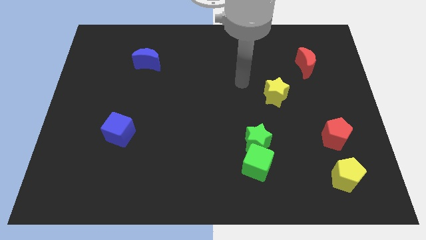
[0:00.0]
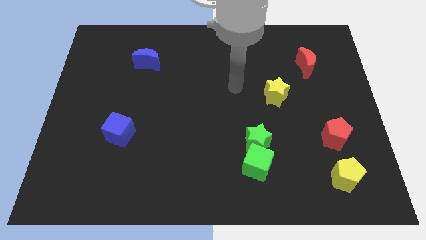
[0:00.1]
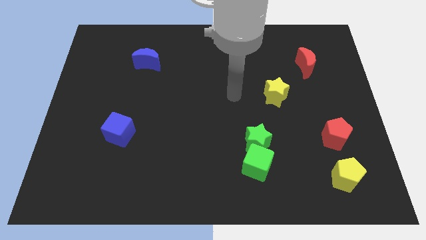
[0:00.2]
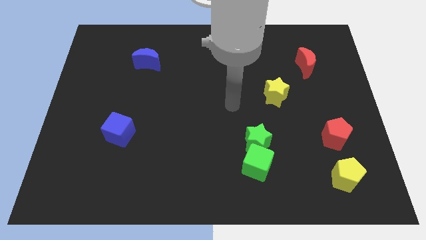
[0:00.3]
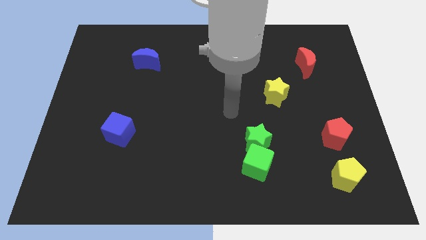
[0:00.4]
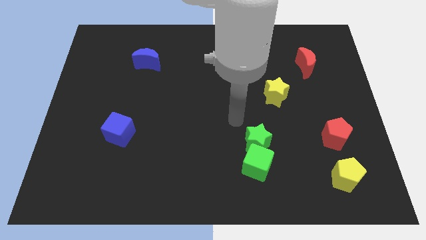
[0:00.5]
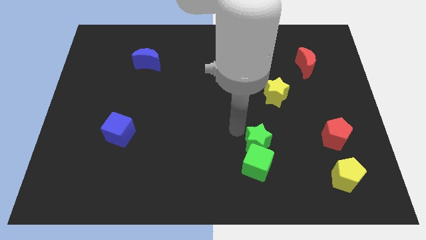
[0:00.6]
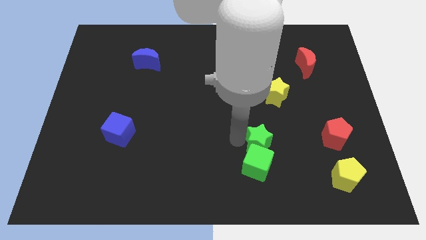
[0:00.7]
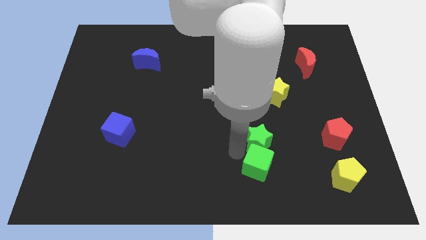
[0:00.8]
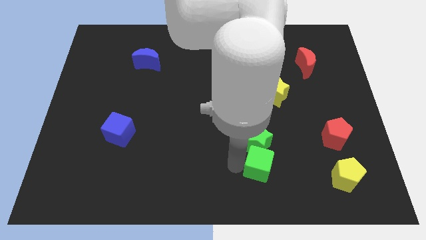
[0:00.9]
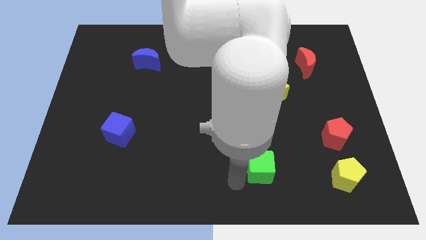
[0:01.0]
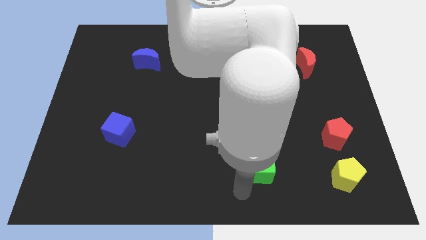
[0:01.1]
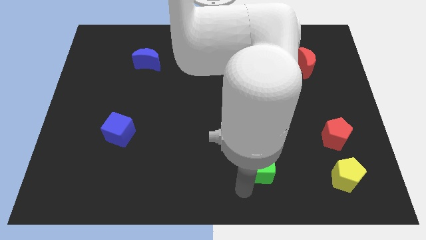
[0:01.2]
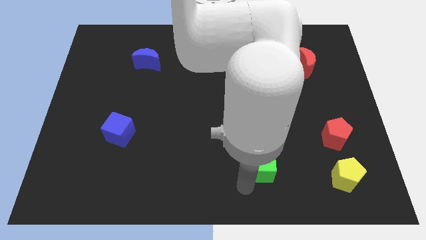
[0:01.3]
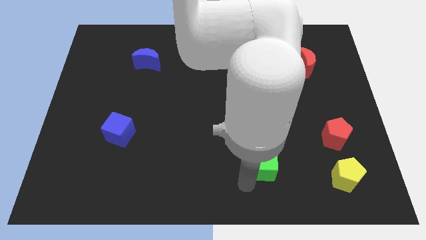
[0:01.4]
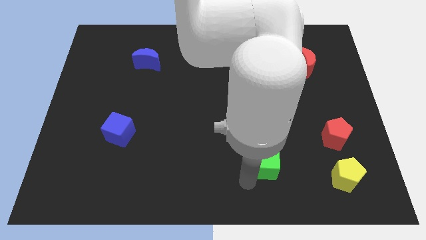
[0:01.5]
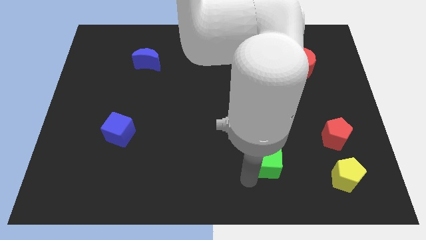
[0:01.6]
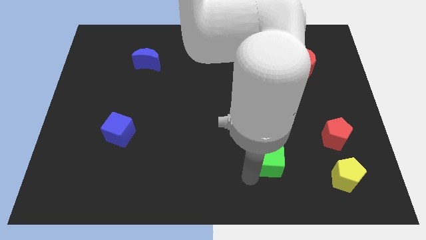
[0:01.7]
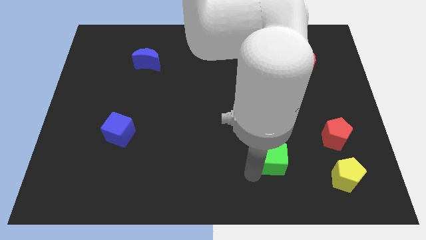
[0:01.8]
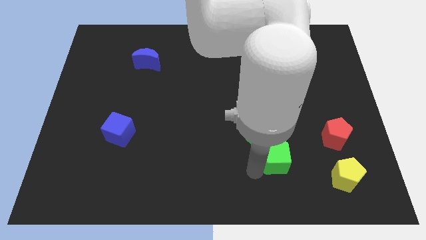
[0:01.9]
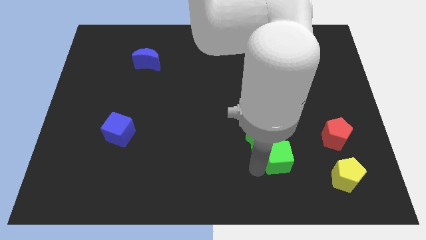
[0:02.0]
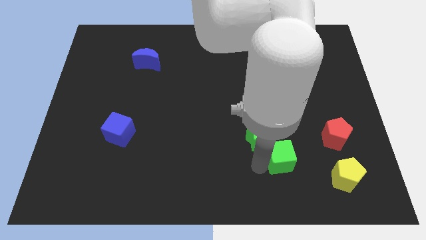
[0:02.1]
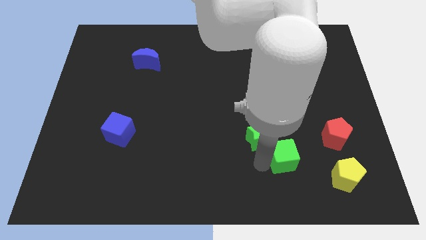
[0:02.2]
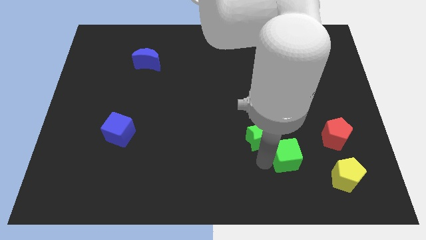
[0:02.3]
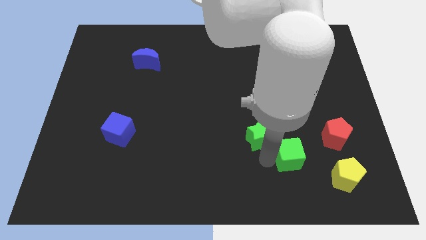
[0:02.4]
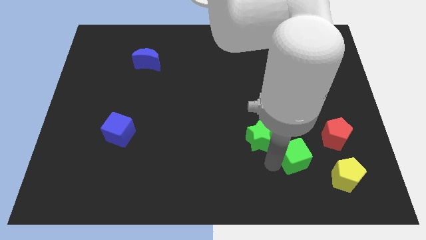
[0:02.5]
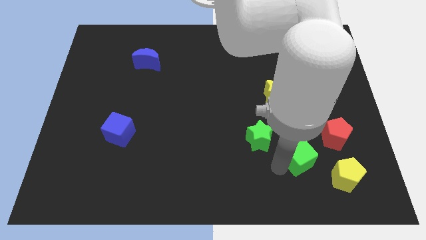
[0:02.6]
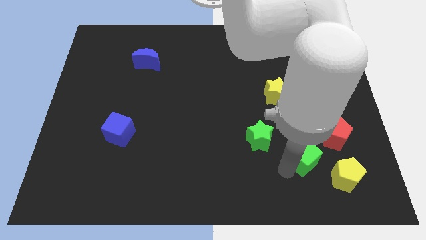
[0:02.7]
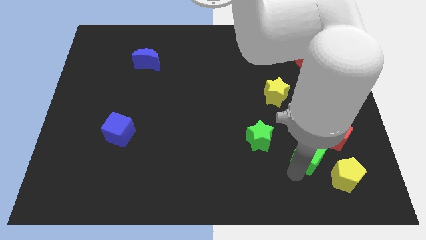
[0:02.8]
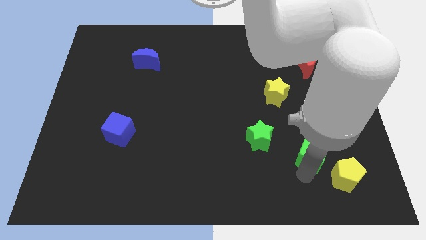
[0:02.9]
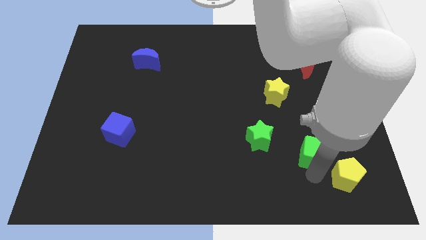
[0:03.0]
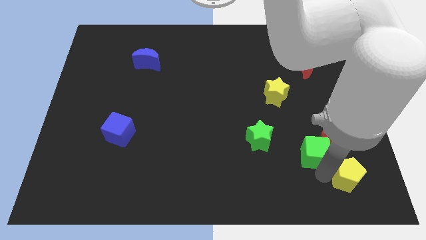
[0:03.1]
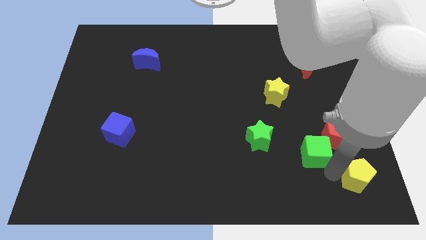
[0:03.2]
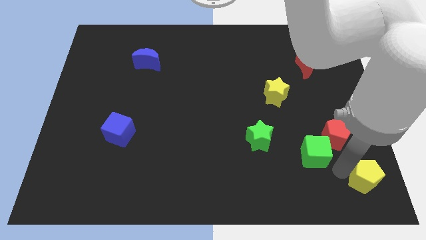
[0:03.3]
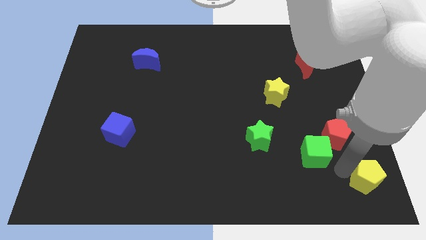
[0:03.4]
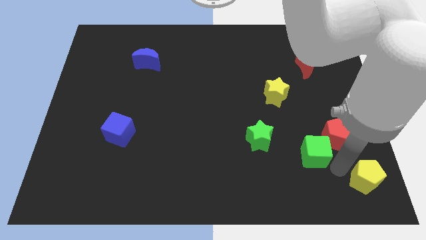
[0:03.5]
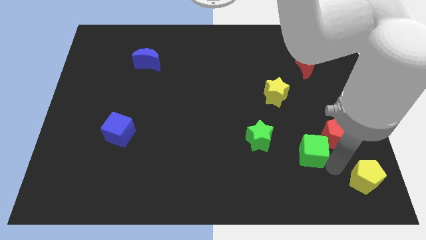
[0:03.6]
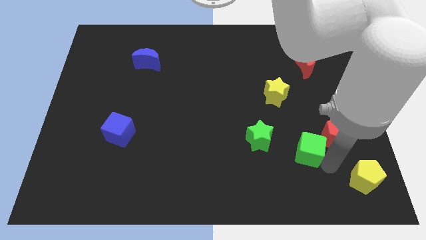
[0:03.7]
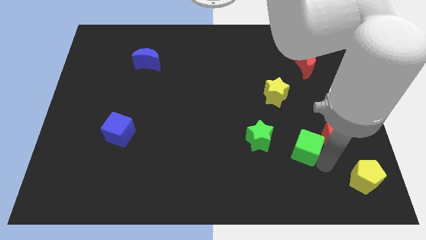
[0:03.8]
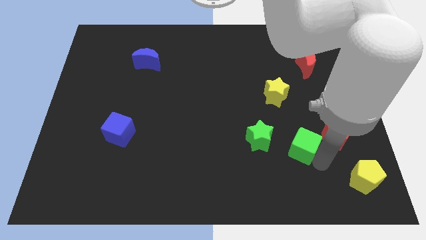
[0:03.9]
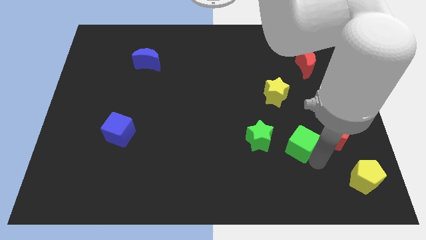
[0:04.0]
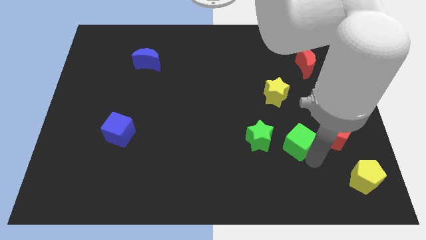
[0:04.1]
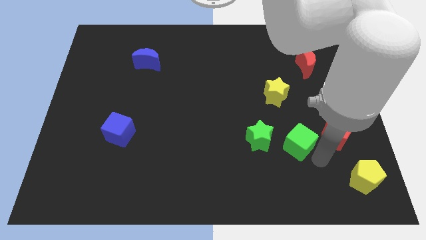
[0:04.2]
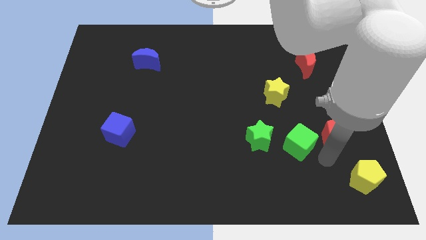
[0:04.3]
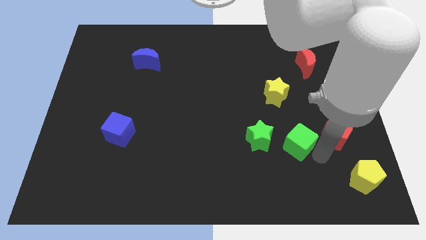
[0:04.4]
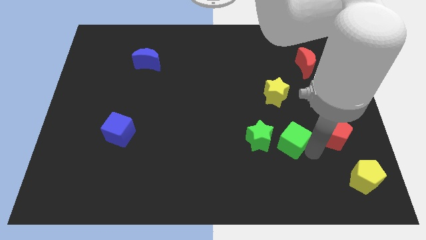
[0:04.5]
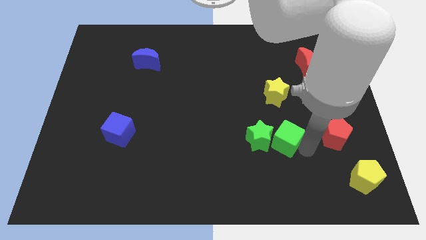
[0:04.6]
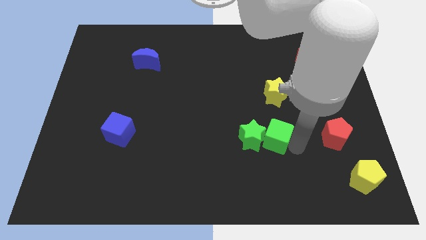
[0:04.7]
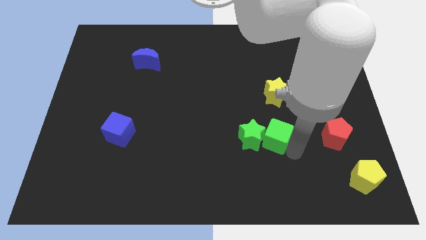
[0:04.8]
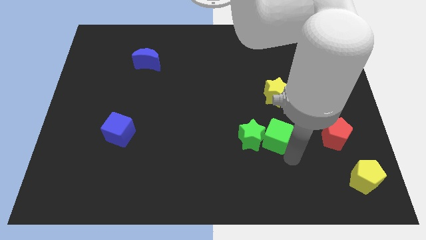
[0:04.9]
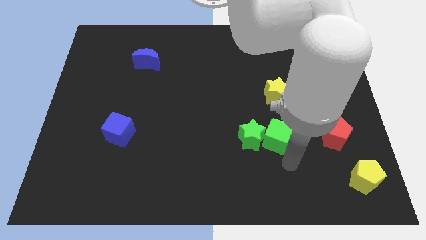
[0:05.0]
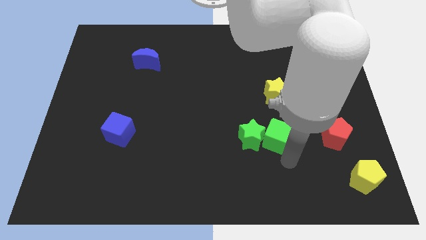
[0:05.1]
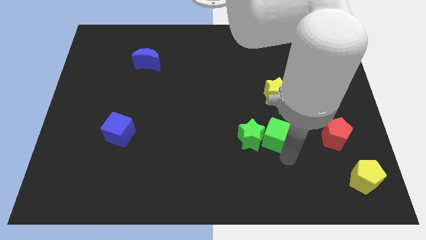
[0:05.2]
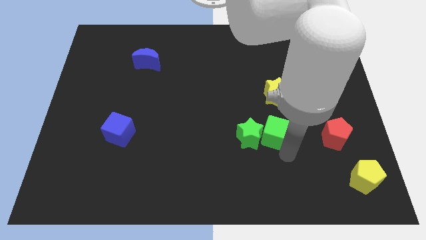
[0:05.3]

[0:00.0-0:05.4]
move the green cube up somewhat

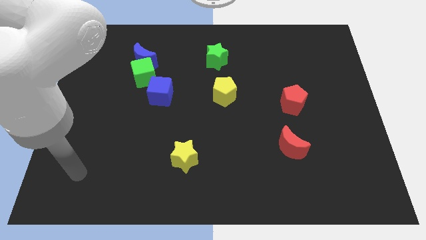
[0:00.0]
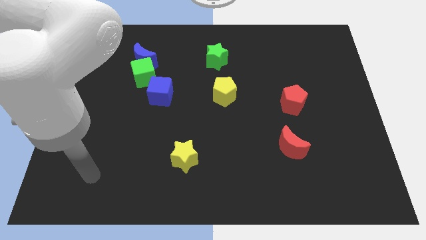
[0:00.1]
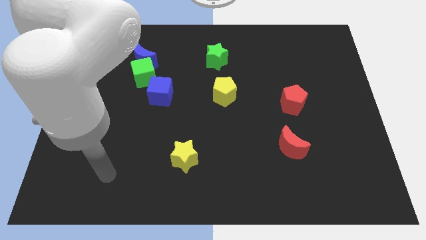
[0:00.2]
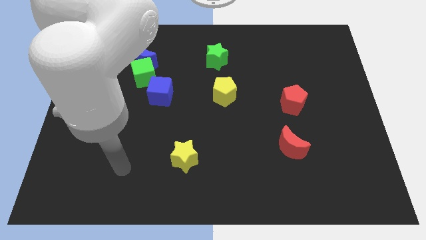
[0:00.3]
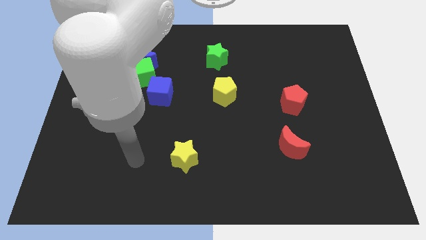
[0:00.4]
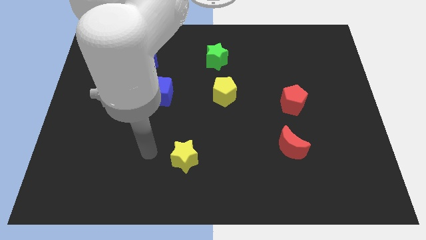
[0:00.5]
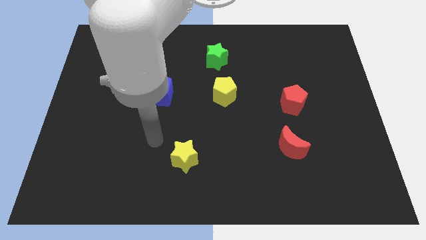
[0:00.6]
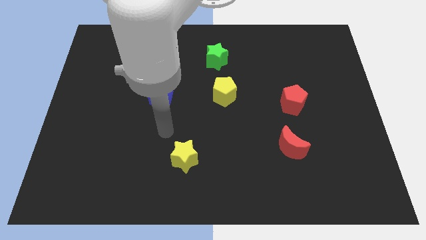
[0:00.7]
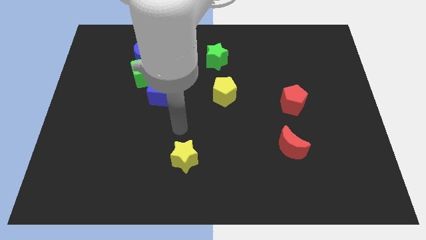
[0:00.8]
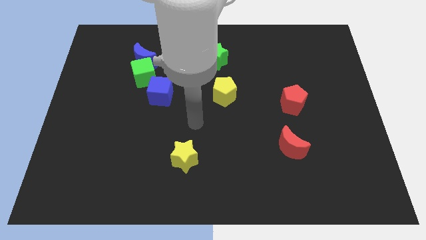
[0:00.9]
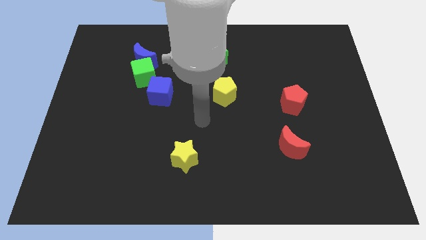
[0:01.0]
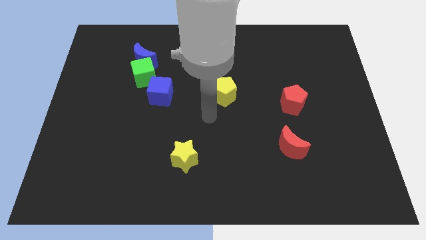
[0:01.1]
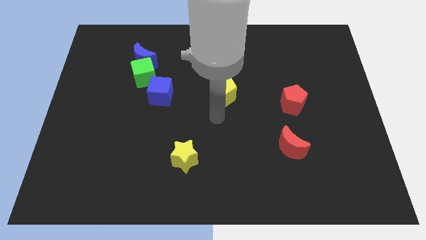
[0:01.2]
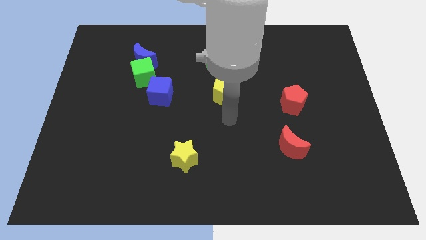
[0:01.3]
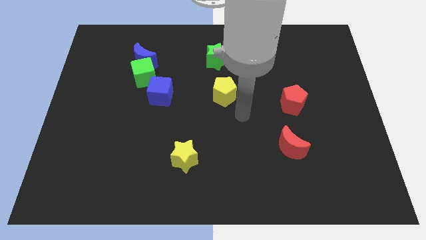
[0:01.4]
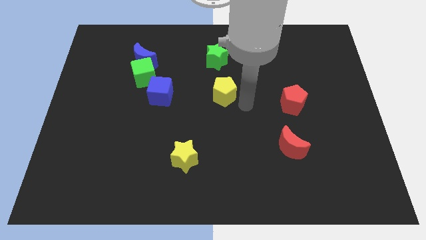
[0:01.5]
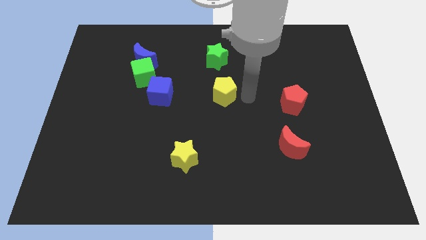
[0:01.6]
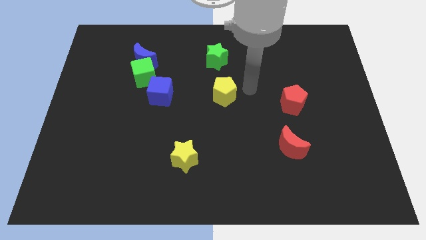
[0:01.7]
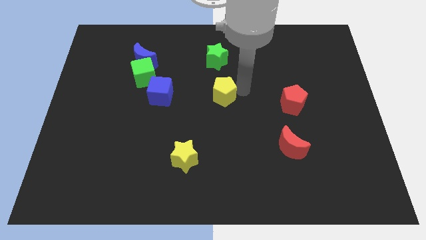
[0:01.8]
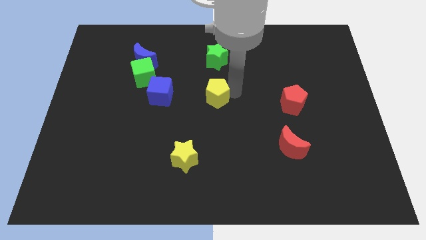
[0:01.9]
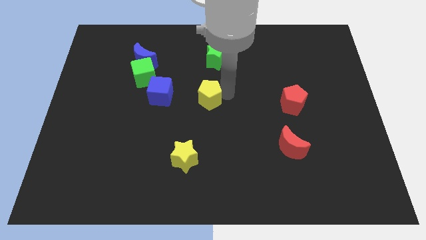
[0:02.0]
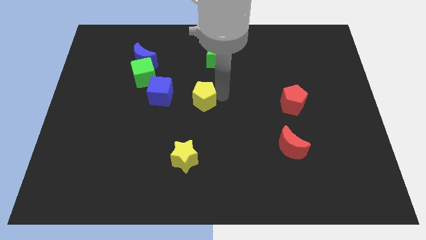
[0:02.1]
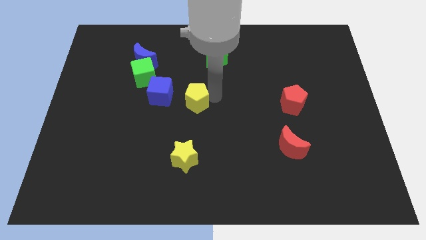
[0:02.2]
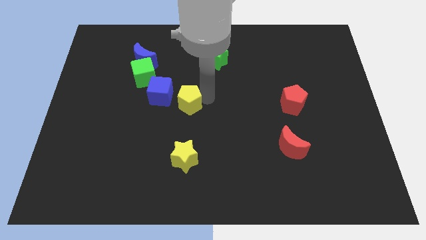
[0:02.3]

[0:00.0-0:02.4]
slide the yellow pentagon to the left slightly

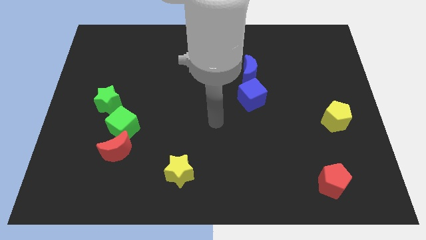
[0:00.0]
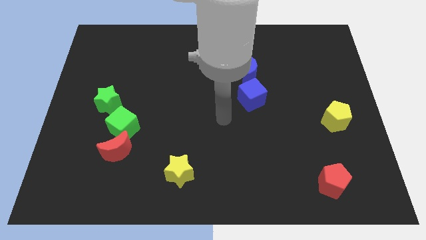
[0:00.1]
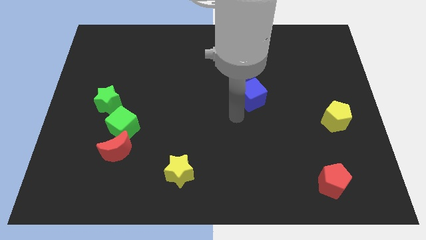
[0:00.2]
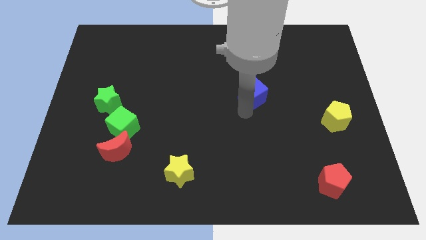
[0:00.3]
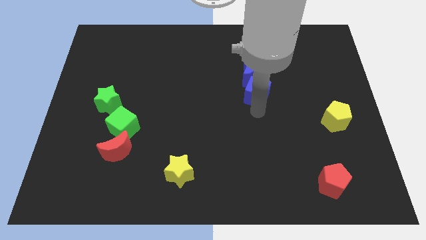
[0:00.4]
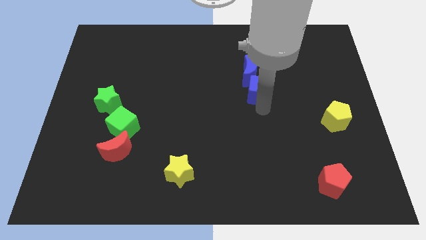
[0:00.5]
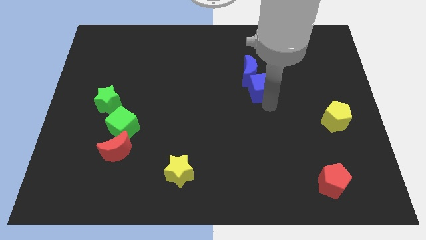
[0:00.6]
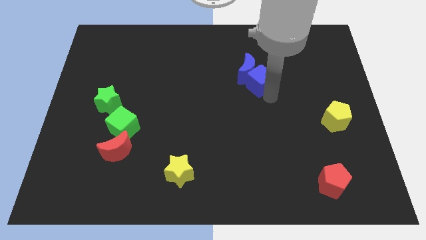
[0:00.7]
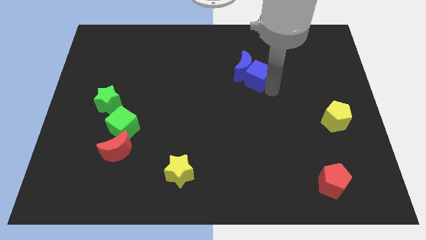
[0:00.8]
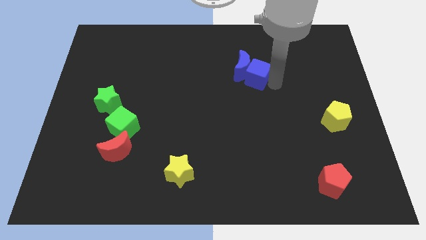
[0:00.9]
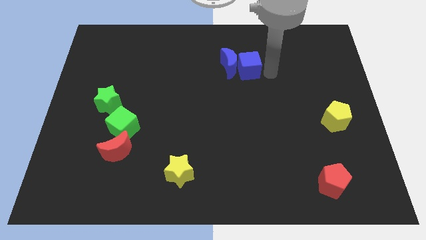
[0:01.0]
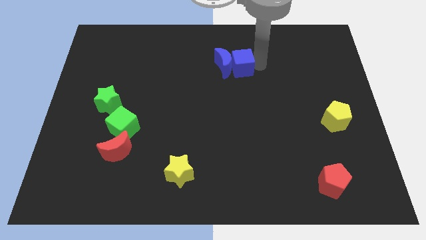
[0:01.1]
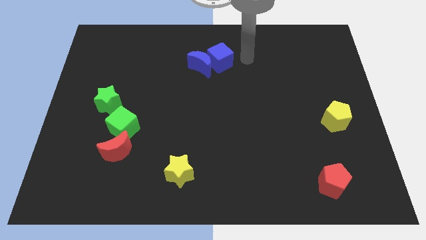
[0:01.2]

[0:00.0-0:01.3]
slide the blue moon left a bit
